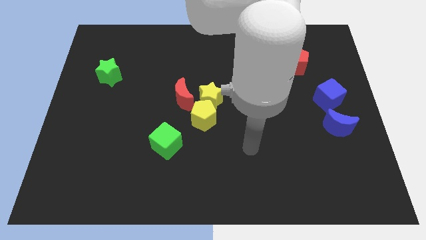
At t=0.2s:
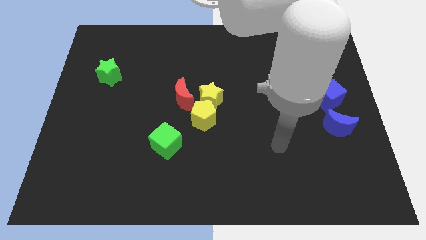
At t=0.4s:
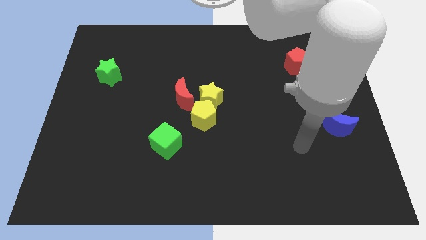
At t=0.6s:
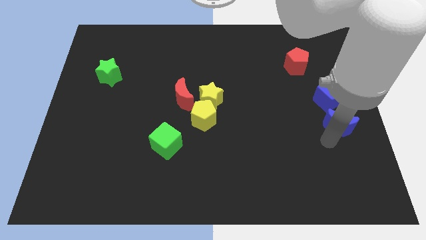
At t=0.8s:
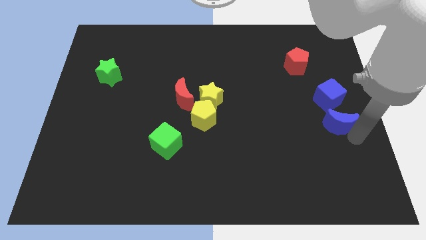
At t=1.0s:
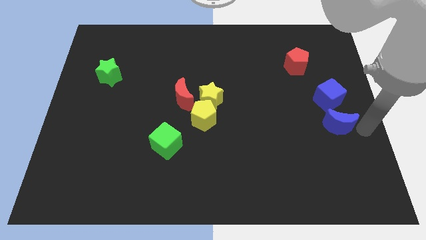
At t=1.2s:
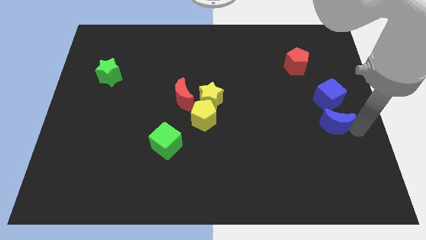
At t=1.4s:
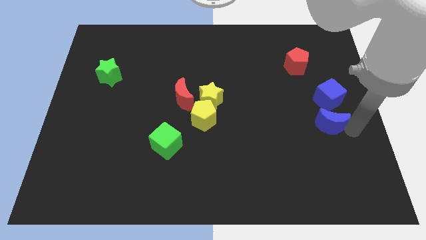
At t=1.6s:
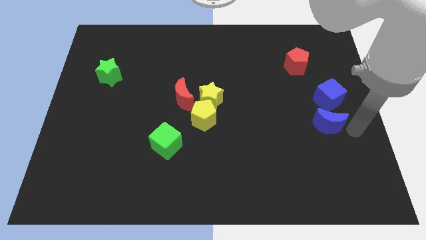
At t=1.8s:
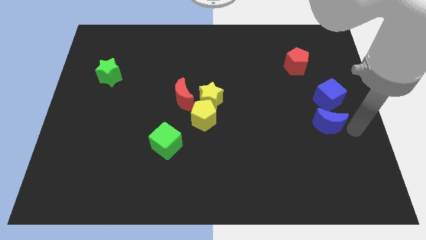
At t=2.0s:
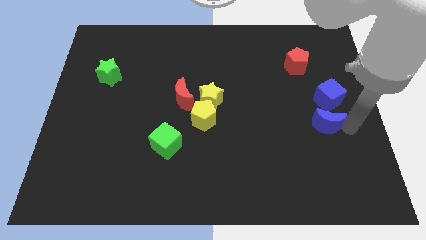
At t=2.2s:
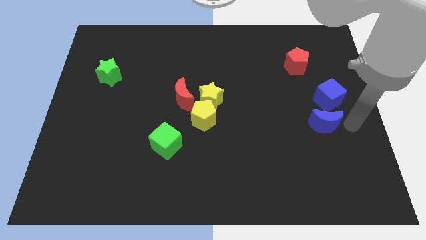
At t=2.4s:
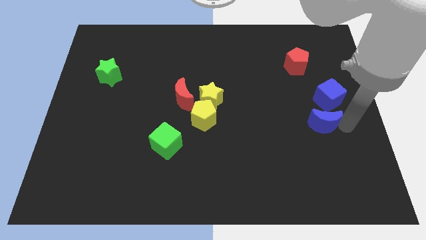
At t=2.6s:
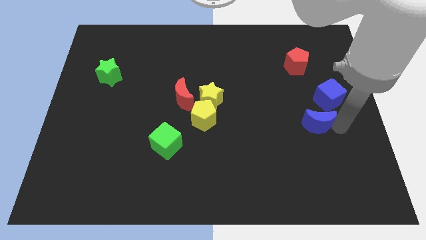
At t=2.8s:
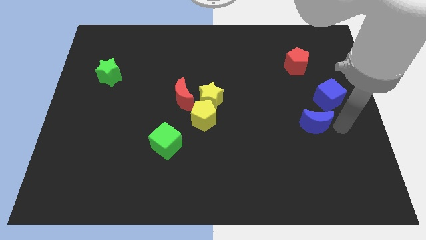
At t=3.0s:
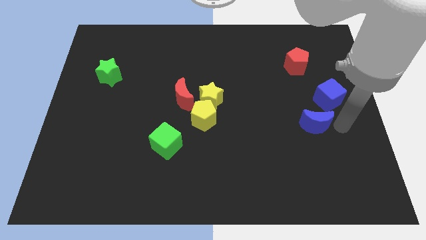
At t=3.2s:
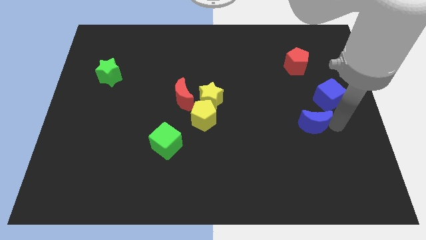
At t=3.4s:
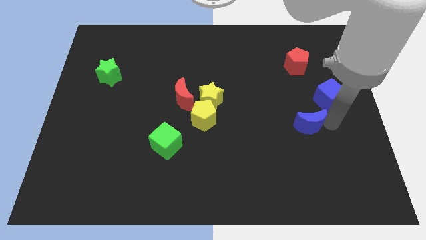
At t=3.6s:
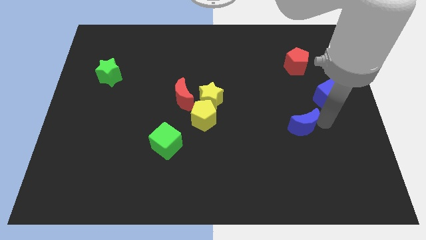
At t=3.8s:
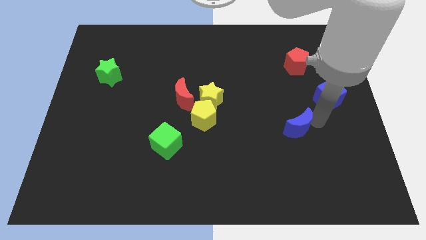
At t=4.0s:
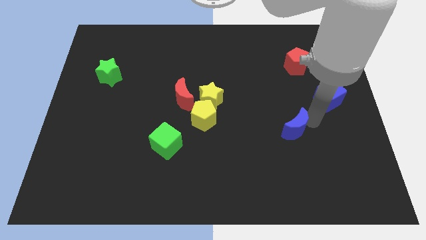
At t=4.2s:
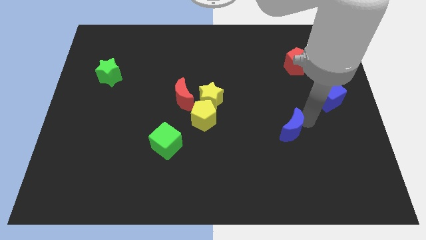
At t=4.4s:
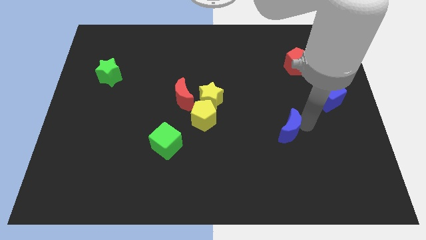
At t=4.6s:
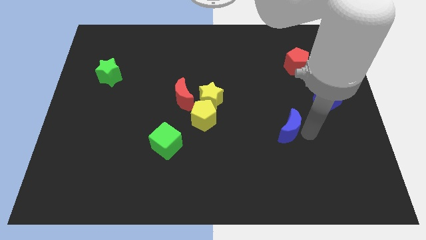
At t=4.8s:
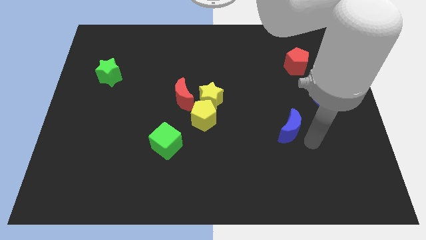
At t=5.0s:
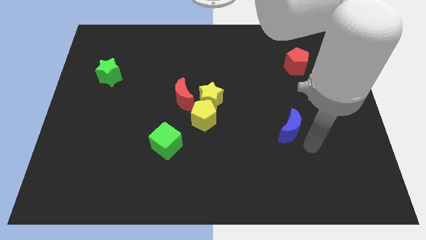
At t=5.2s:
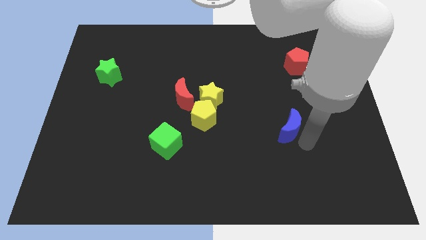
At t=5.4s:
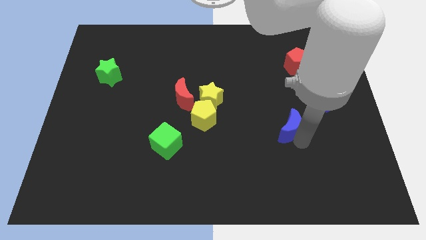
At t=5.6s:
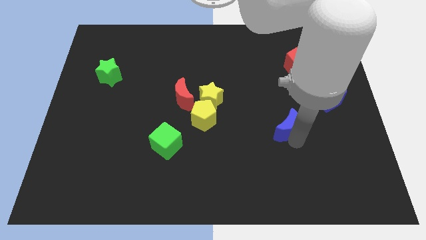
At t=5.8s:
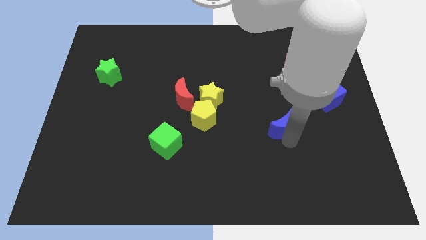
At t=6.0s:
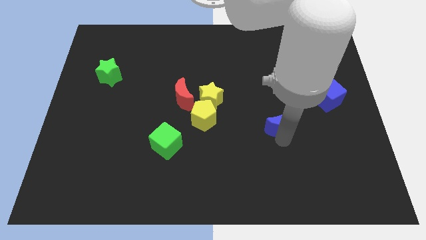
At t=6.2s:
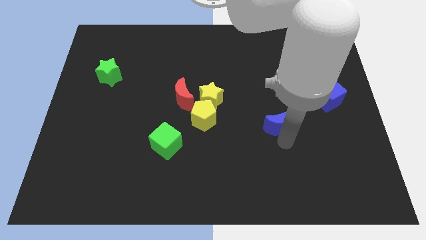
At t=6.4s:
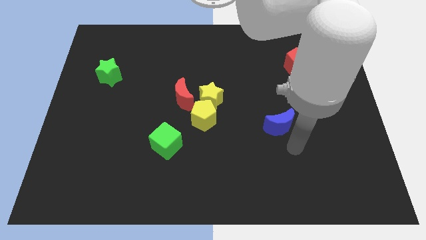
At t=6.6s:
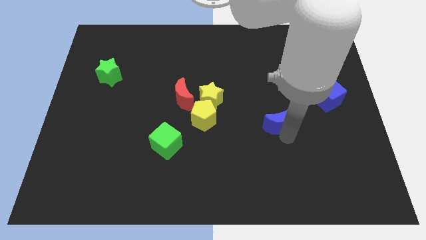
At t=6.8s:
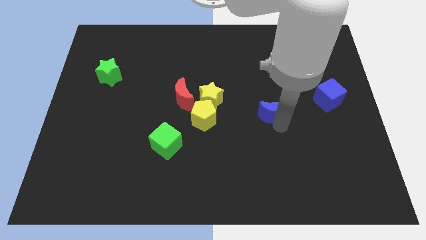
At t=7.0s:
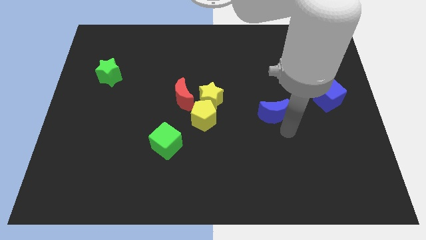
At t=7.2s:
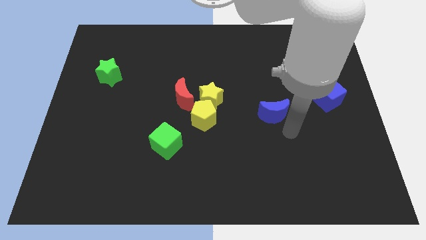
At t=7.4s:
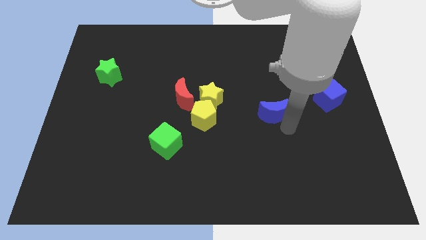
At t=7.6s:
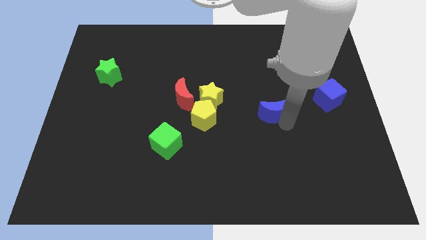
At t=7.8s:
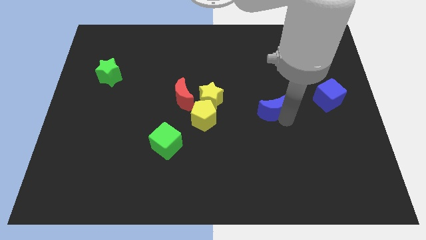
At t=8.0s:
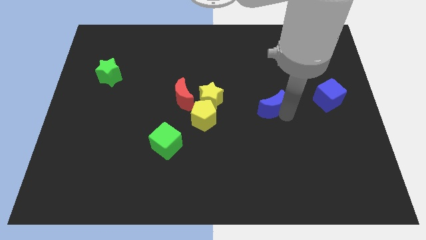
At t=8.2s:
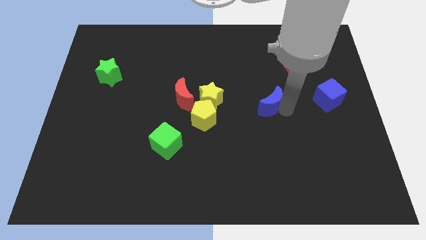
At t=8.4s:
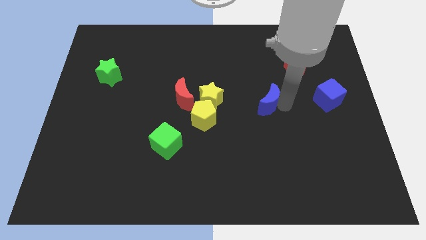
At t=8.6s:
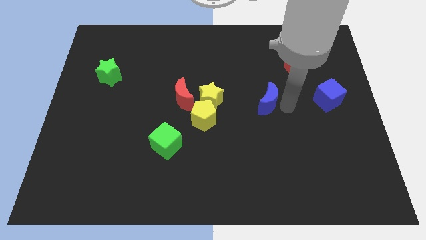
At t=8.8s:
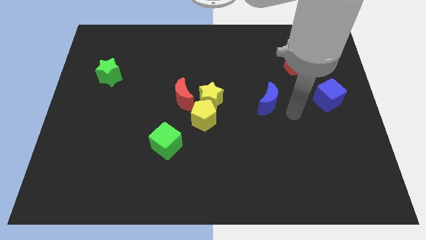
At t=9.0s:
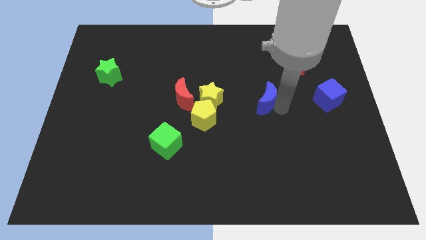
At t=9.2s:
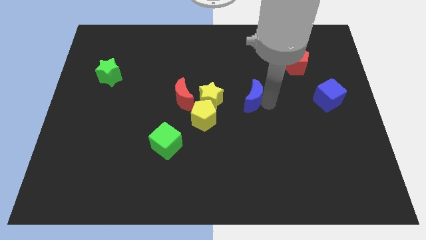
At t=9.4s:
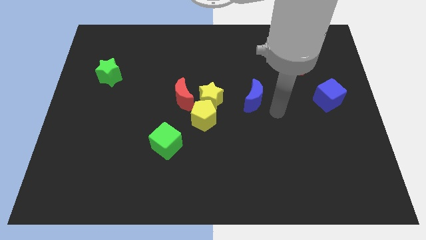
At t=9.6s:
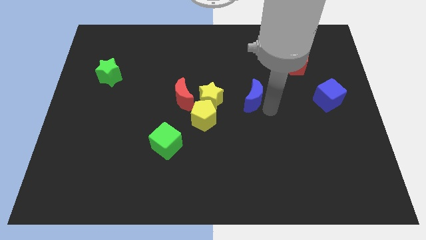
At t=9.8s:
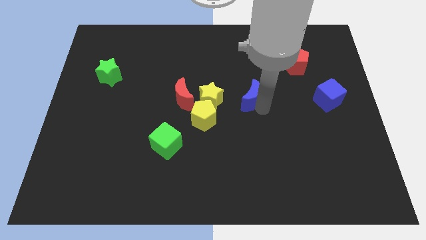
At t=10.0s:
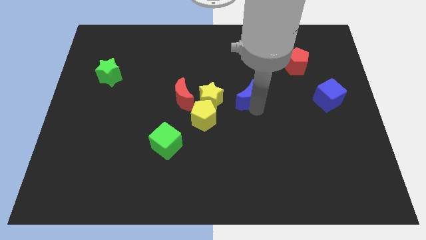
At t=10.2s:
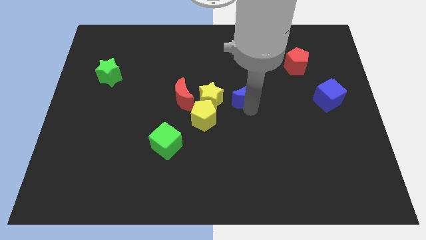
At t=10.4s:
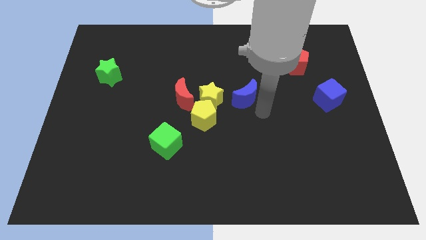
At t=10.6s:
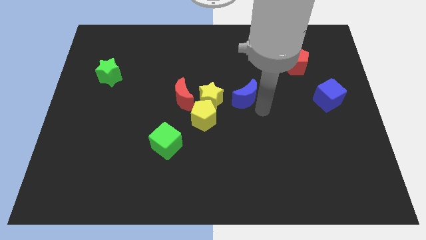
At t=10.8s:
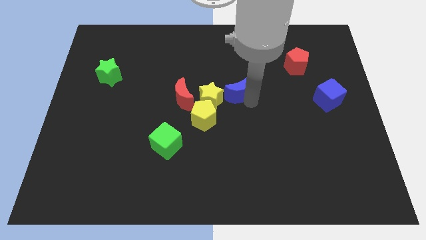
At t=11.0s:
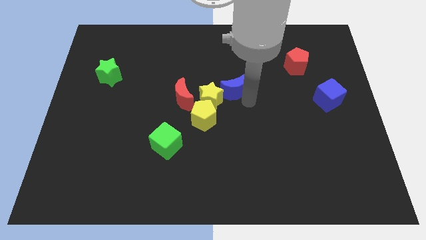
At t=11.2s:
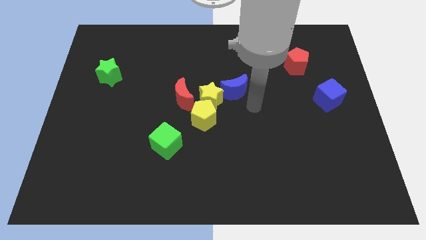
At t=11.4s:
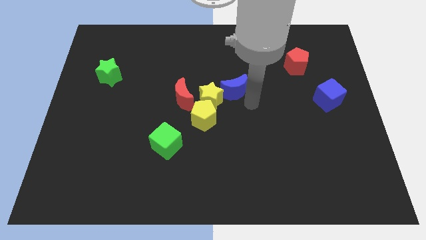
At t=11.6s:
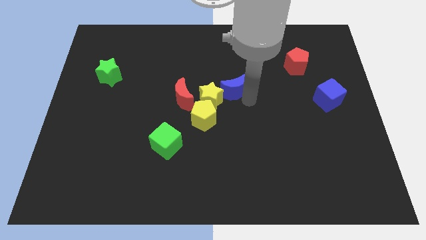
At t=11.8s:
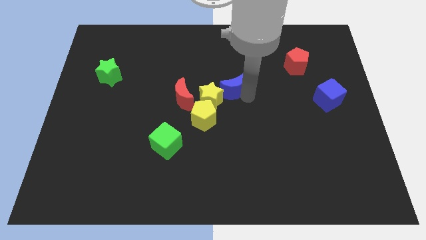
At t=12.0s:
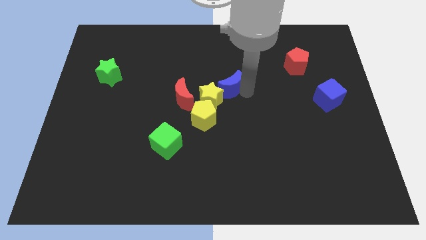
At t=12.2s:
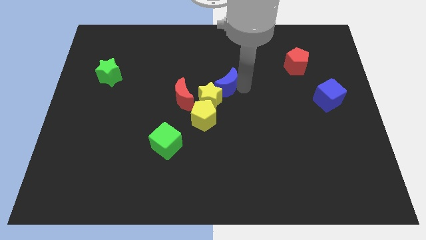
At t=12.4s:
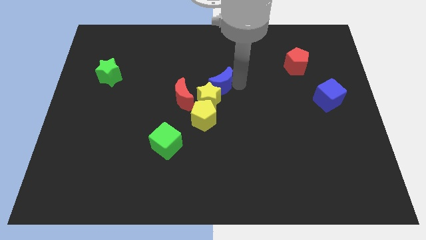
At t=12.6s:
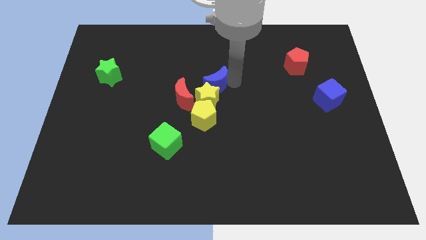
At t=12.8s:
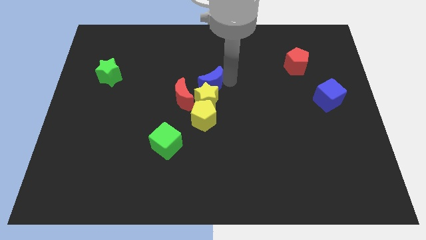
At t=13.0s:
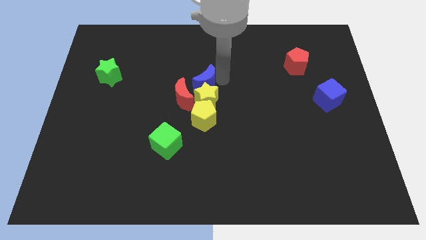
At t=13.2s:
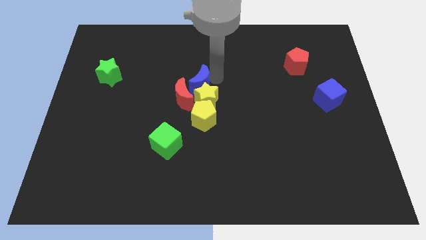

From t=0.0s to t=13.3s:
move the blue moon close to the red moon

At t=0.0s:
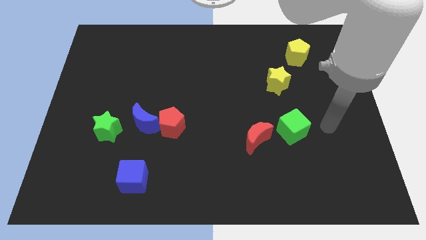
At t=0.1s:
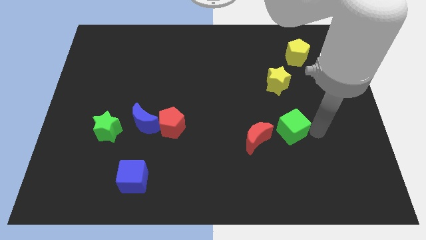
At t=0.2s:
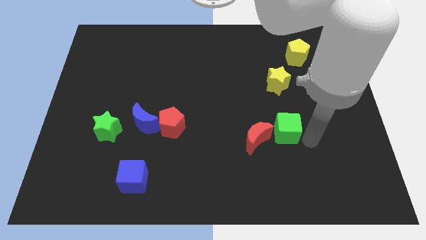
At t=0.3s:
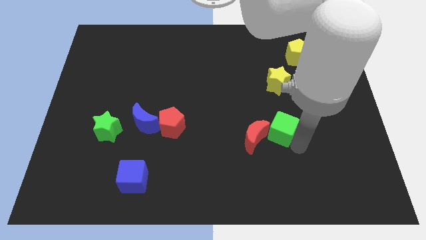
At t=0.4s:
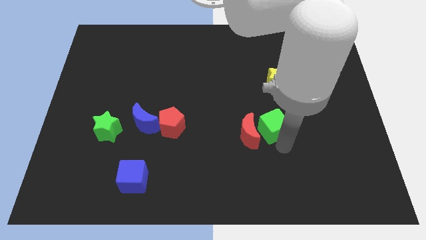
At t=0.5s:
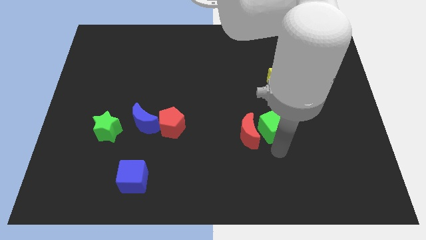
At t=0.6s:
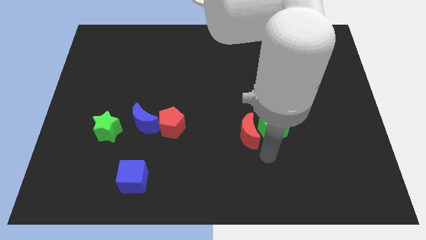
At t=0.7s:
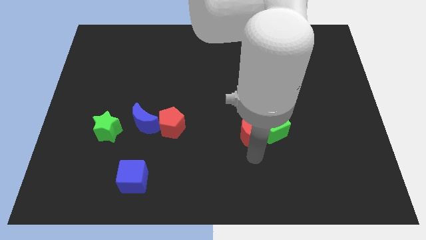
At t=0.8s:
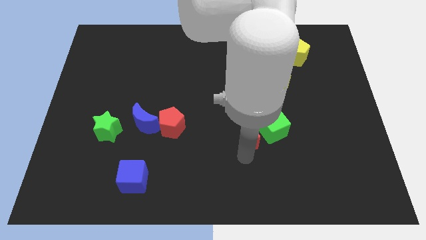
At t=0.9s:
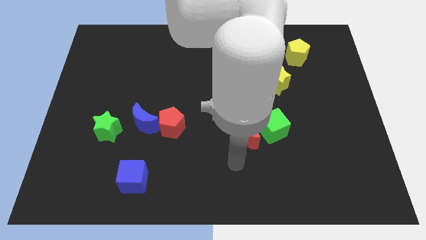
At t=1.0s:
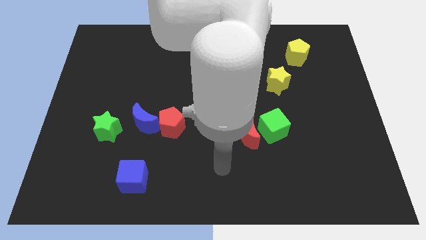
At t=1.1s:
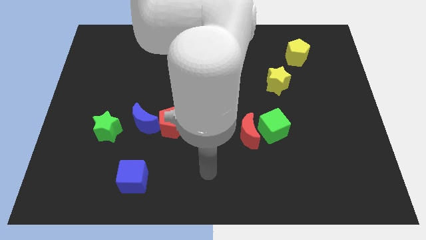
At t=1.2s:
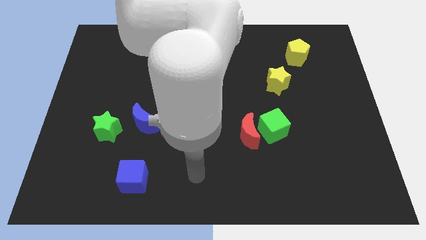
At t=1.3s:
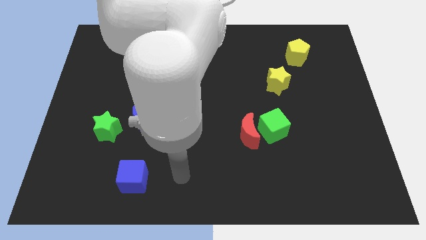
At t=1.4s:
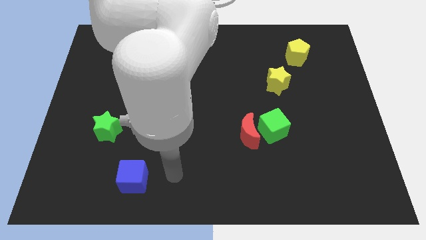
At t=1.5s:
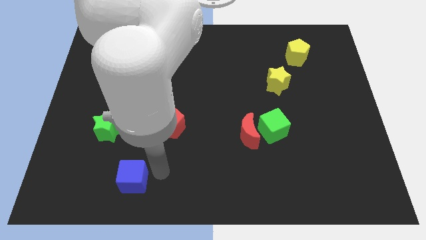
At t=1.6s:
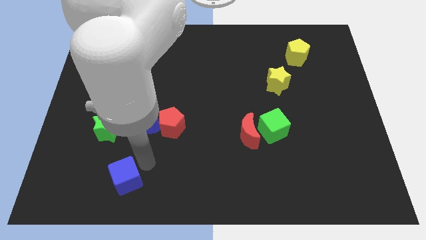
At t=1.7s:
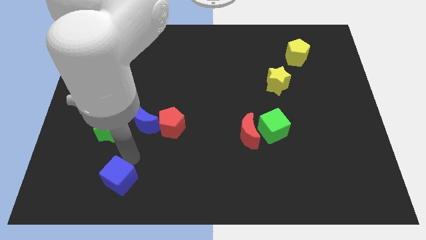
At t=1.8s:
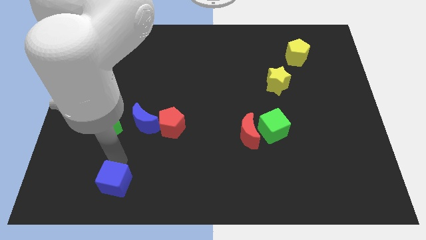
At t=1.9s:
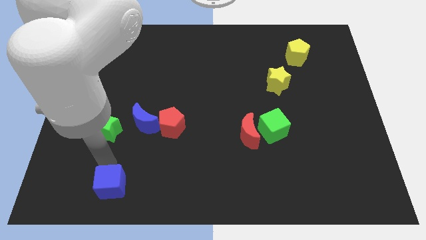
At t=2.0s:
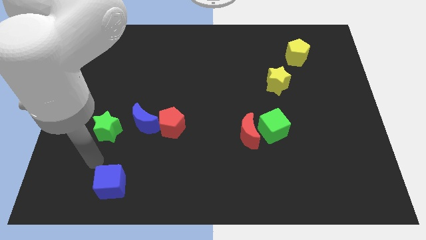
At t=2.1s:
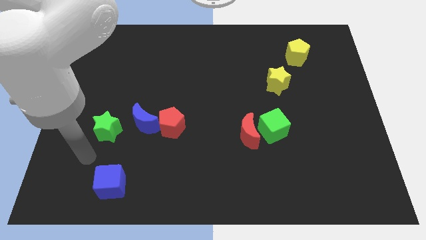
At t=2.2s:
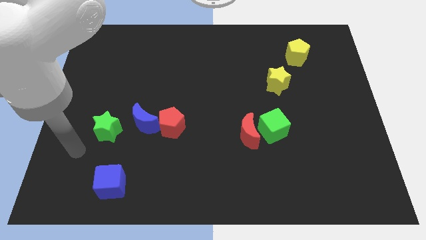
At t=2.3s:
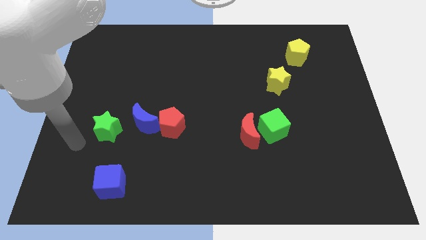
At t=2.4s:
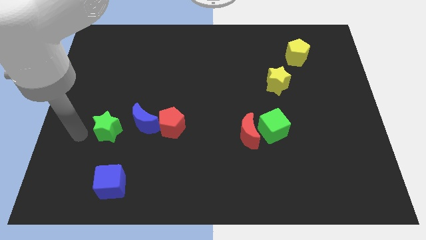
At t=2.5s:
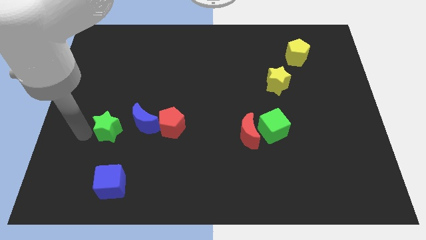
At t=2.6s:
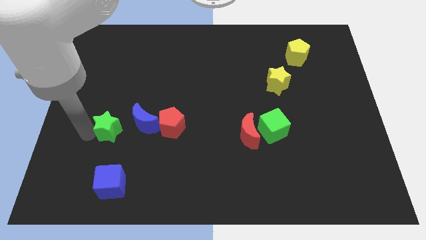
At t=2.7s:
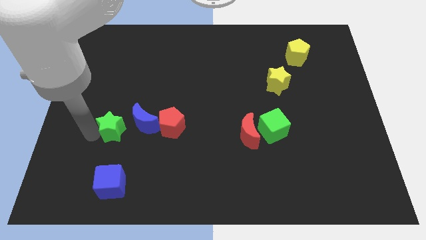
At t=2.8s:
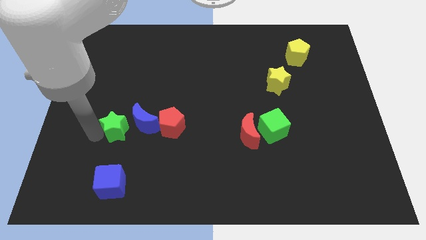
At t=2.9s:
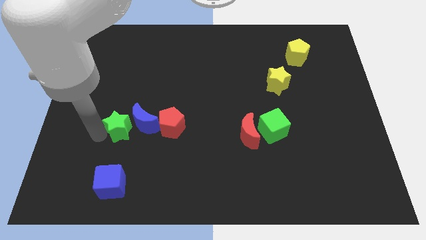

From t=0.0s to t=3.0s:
push the green star next to the blue moon
